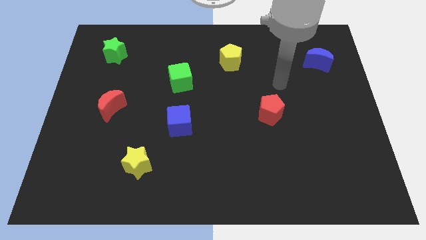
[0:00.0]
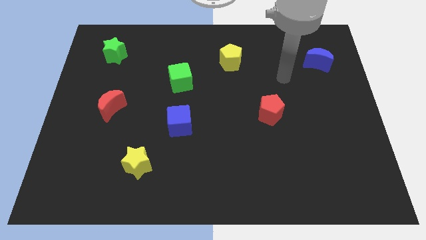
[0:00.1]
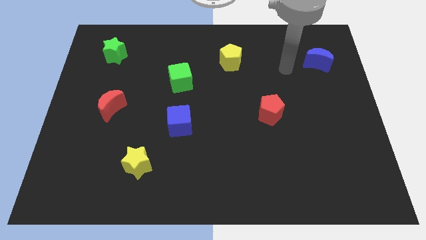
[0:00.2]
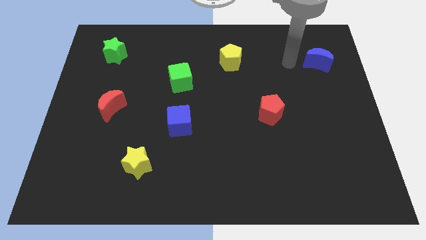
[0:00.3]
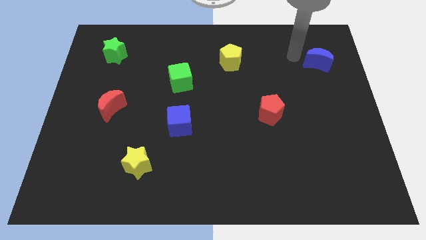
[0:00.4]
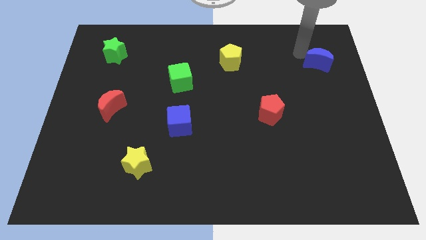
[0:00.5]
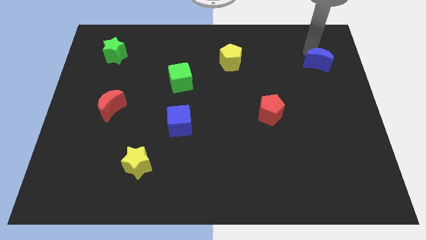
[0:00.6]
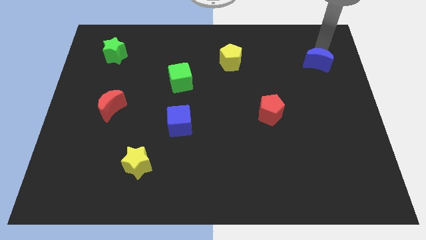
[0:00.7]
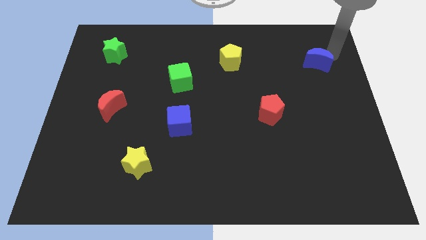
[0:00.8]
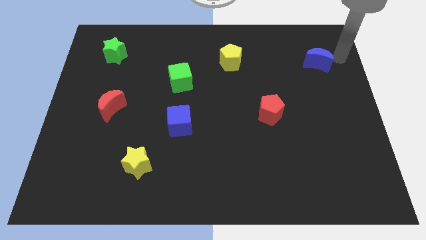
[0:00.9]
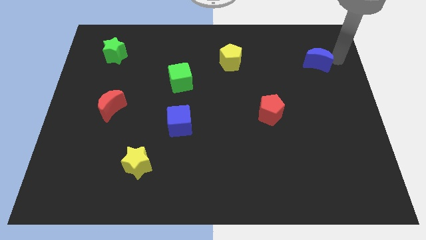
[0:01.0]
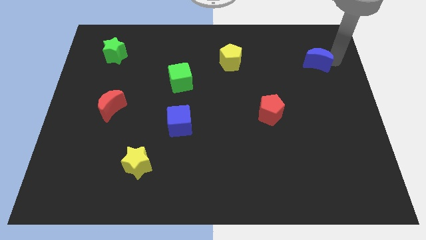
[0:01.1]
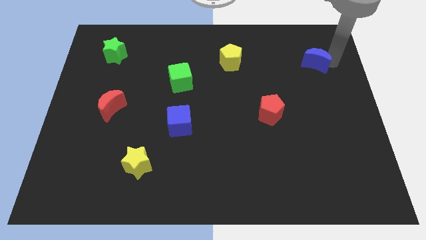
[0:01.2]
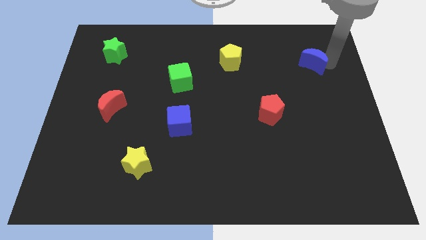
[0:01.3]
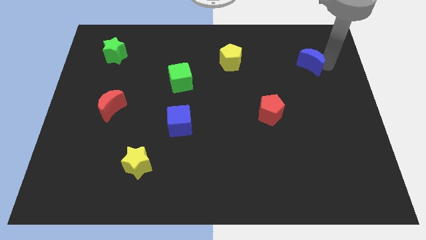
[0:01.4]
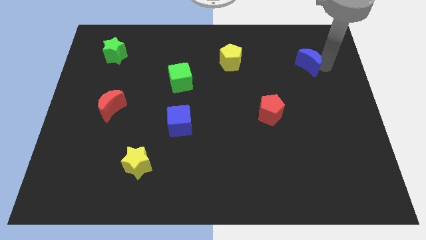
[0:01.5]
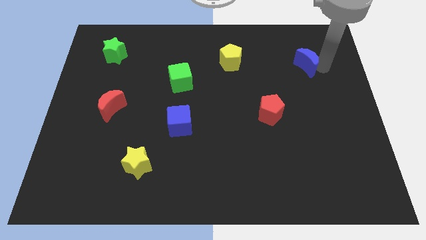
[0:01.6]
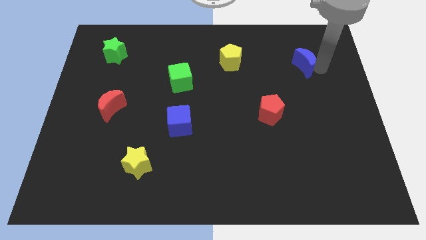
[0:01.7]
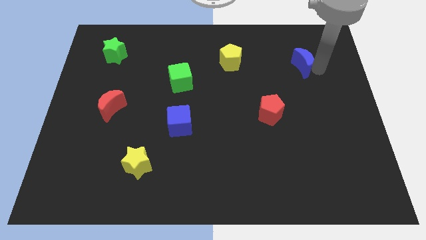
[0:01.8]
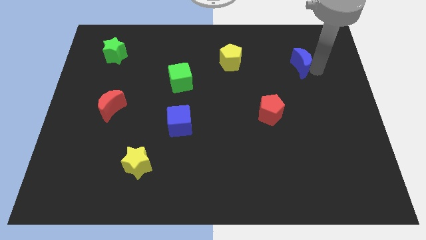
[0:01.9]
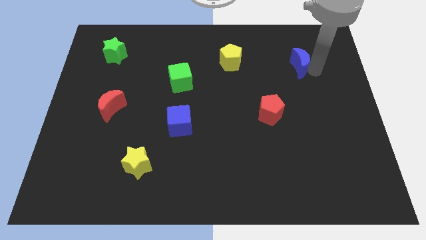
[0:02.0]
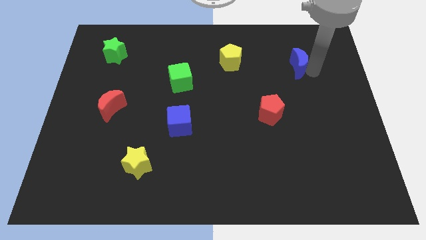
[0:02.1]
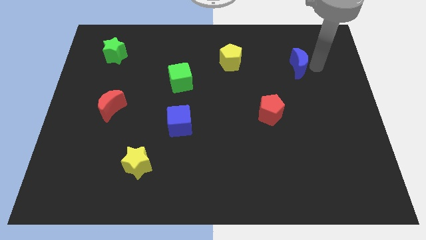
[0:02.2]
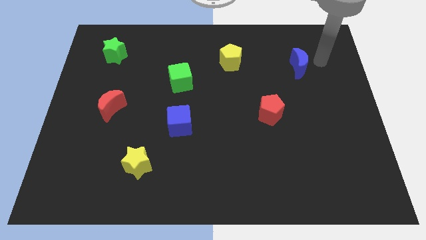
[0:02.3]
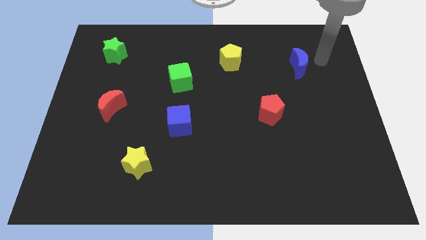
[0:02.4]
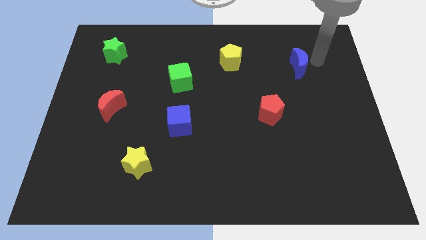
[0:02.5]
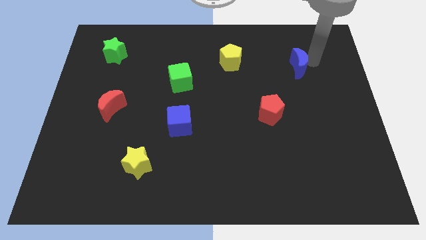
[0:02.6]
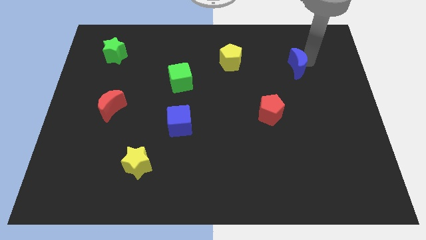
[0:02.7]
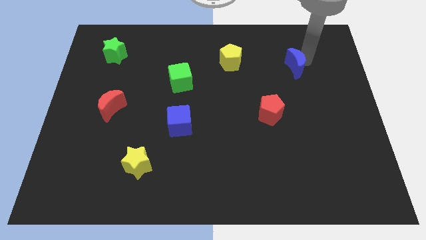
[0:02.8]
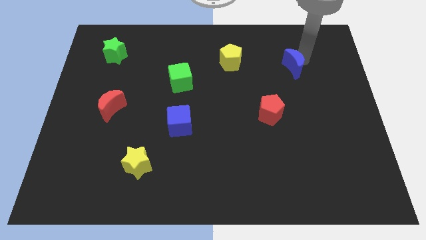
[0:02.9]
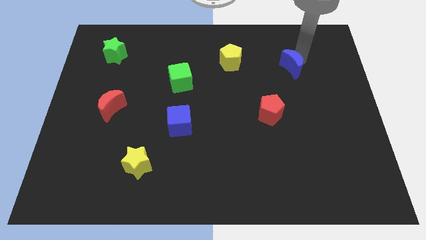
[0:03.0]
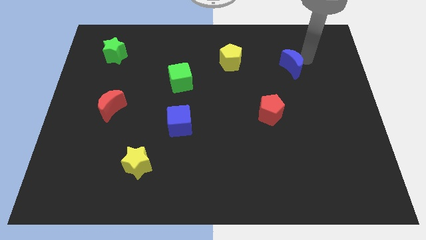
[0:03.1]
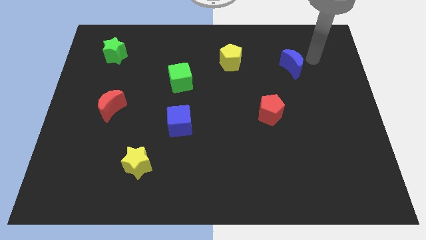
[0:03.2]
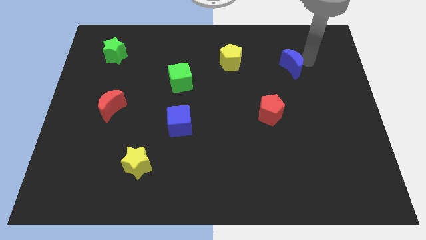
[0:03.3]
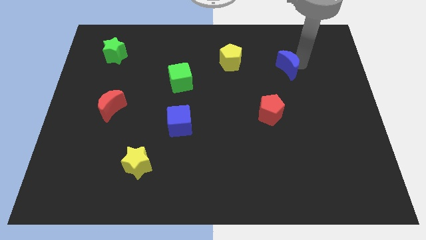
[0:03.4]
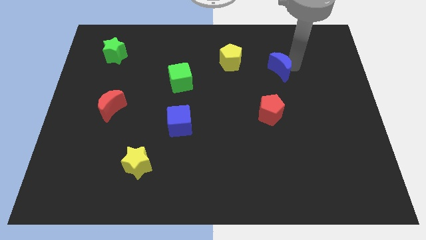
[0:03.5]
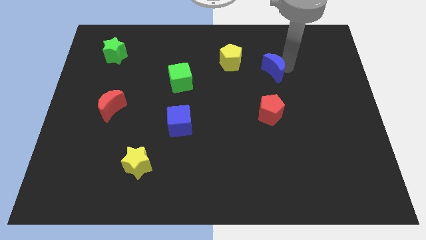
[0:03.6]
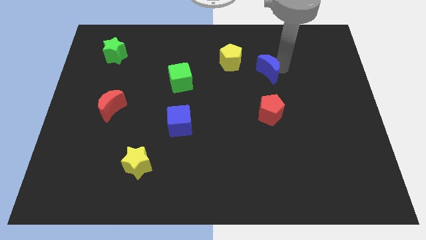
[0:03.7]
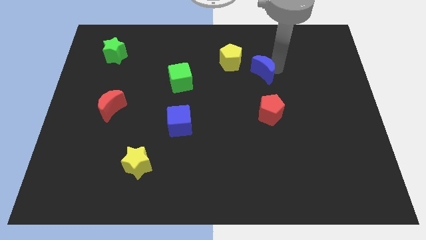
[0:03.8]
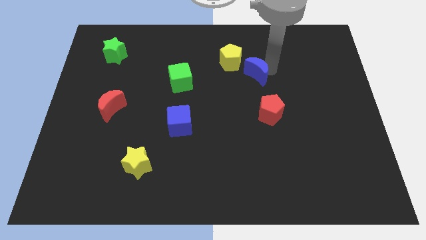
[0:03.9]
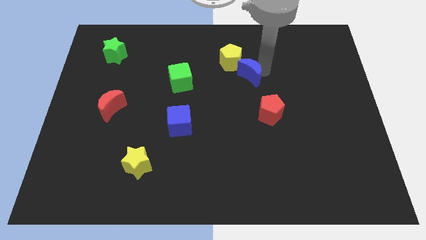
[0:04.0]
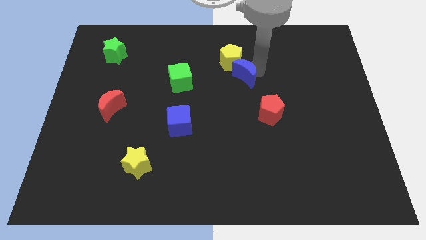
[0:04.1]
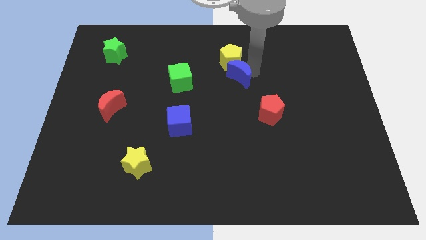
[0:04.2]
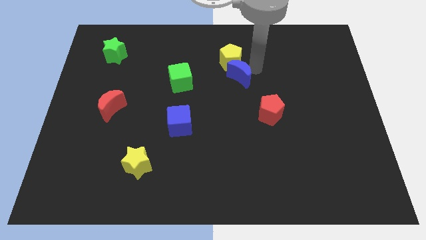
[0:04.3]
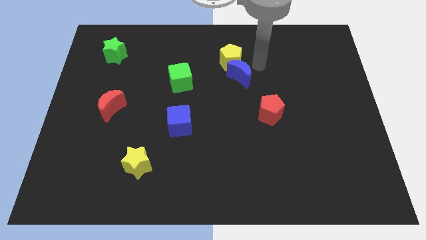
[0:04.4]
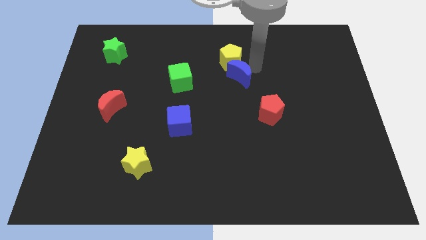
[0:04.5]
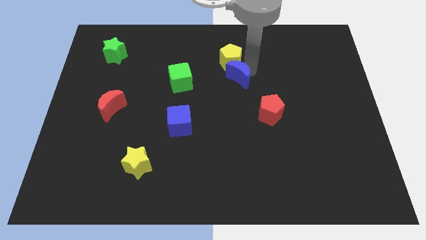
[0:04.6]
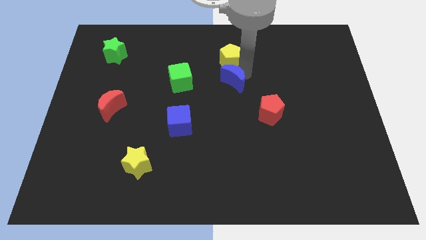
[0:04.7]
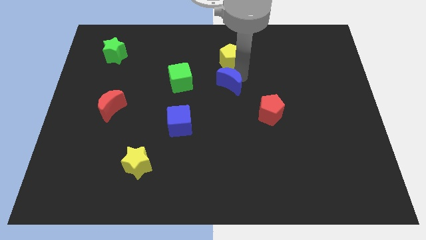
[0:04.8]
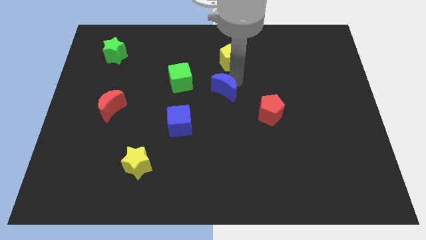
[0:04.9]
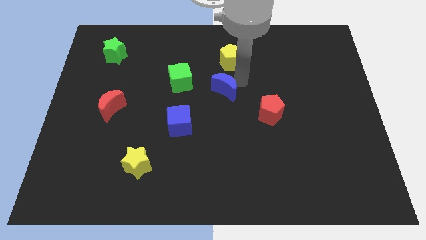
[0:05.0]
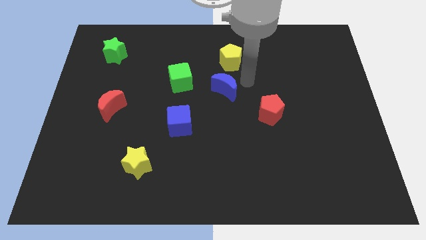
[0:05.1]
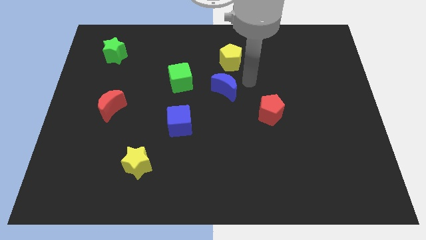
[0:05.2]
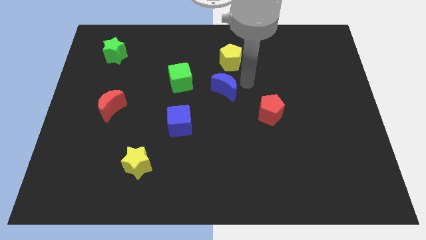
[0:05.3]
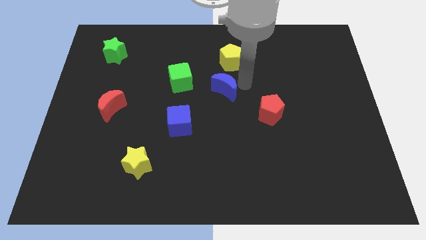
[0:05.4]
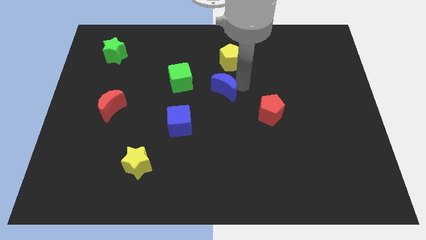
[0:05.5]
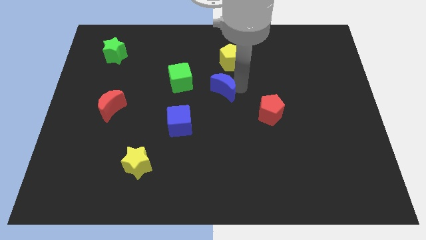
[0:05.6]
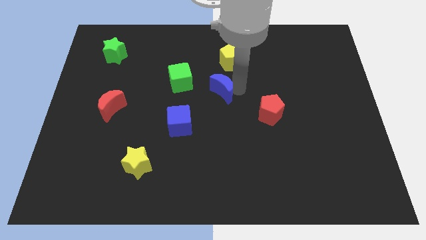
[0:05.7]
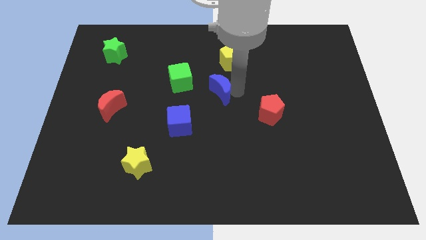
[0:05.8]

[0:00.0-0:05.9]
put the blue moon to the bottom right side of the green cube

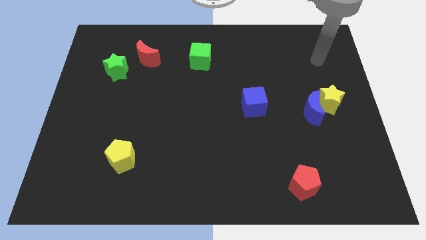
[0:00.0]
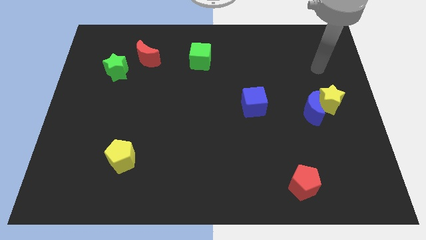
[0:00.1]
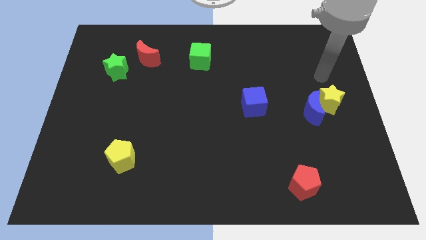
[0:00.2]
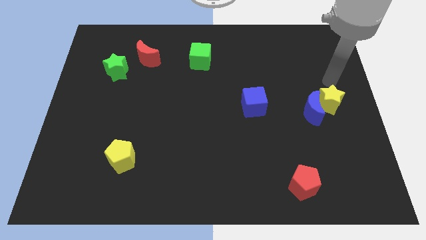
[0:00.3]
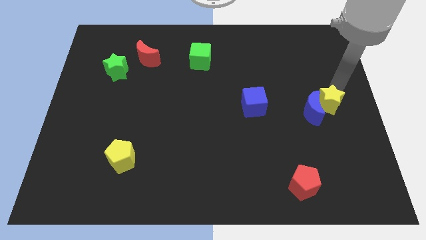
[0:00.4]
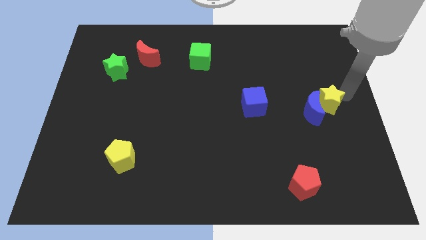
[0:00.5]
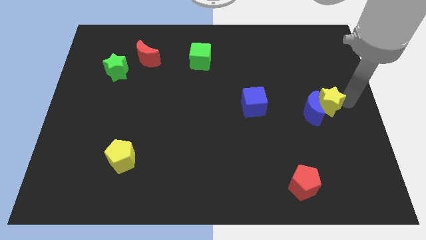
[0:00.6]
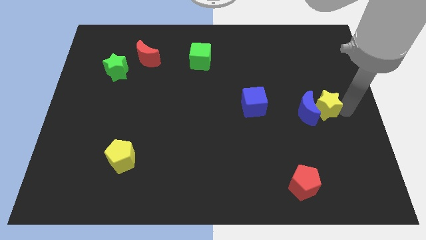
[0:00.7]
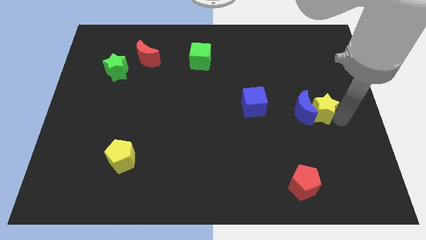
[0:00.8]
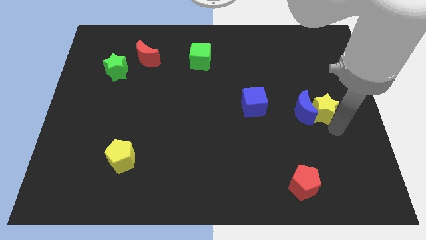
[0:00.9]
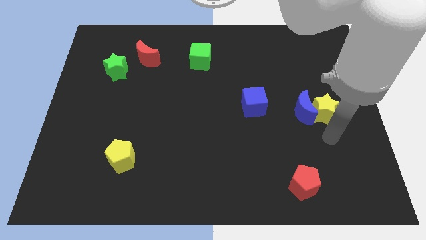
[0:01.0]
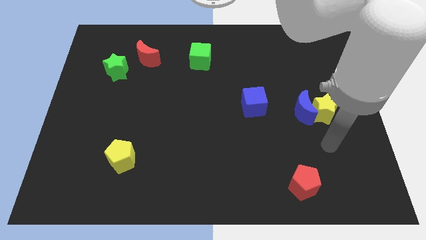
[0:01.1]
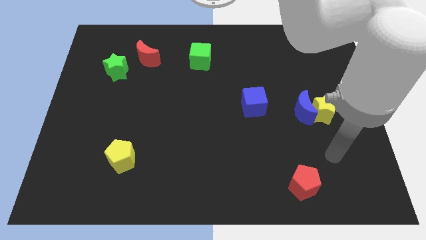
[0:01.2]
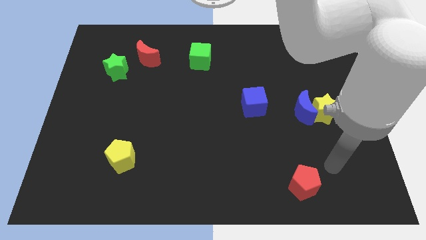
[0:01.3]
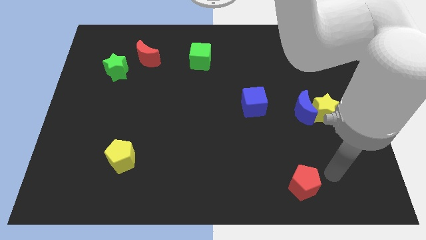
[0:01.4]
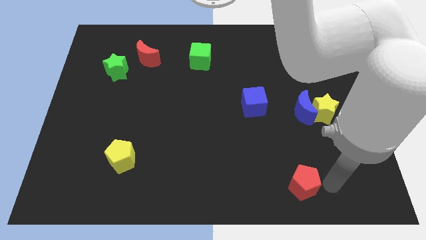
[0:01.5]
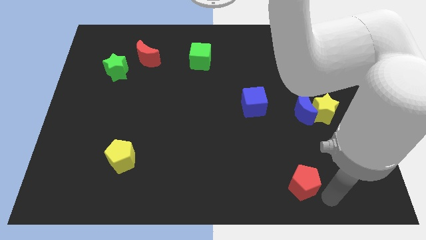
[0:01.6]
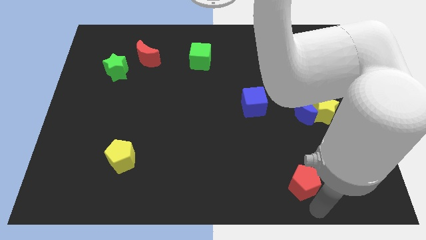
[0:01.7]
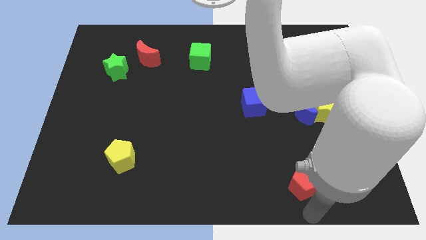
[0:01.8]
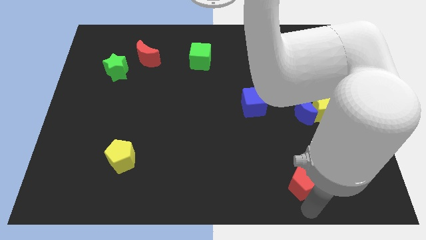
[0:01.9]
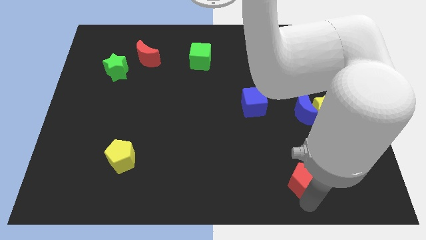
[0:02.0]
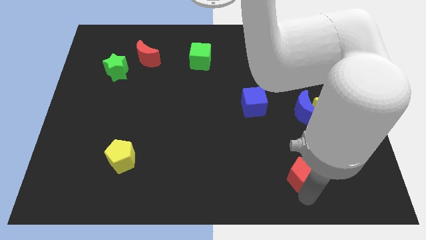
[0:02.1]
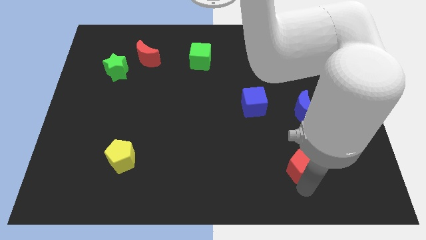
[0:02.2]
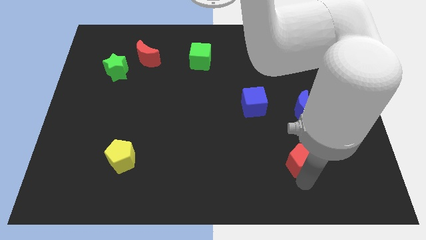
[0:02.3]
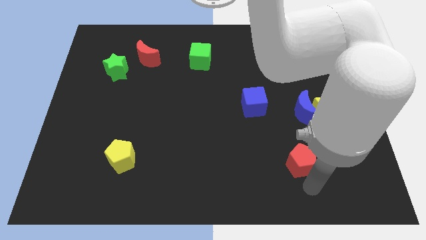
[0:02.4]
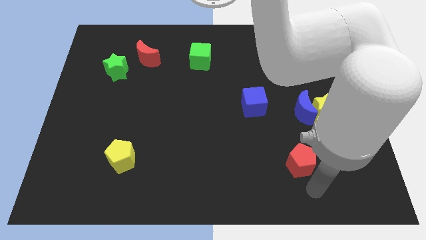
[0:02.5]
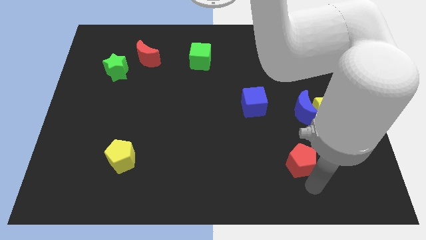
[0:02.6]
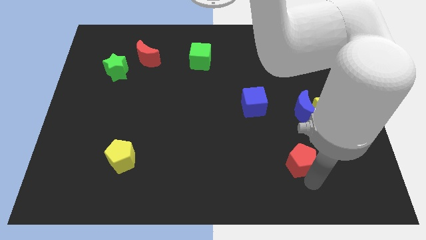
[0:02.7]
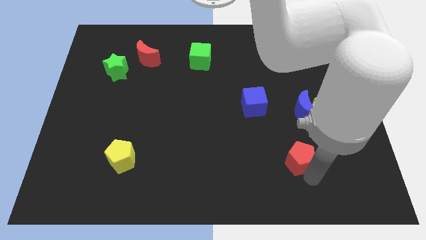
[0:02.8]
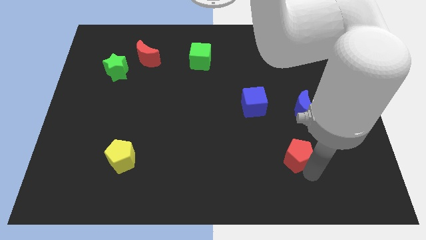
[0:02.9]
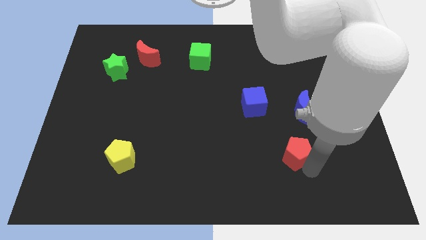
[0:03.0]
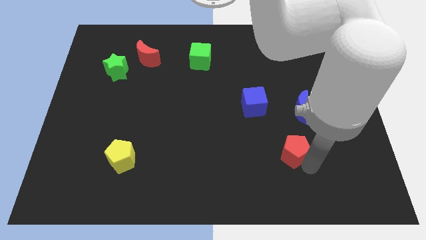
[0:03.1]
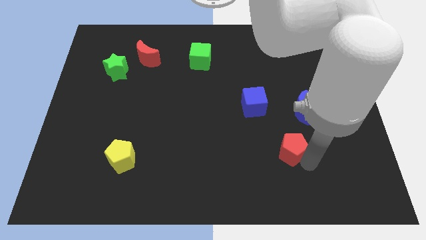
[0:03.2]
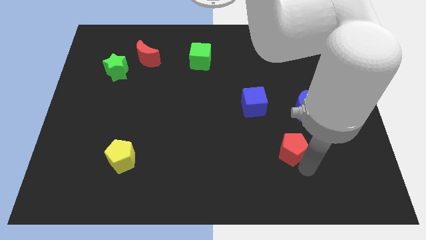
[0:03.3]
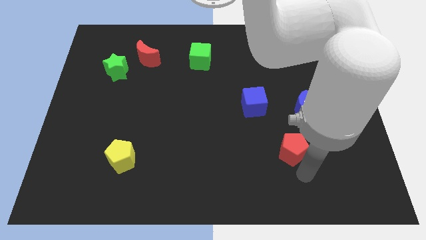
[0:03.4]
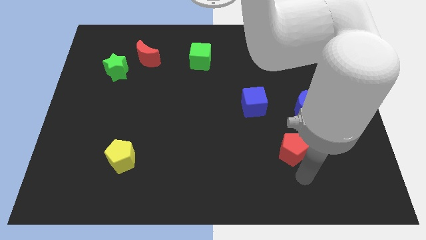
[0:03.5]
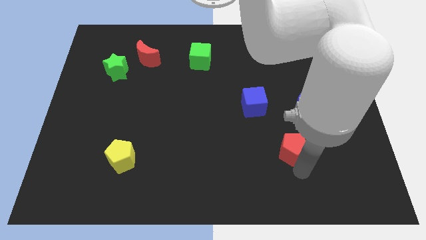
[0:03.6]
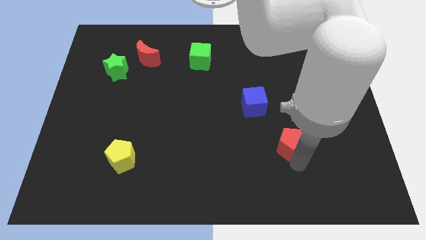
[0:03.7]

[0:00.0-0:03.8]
put the red pentagon diagonally down and to the left of the blue moon
